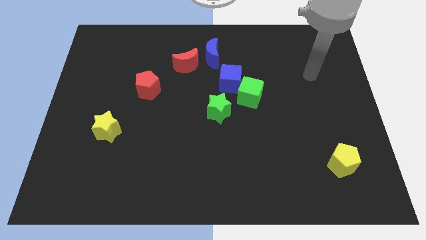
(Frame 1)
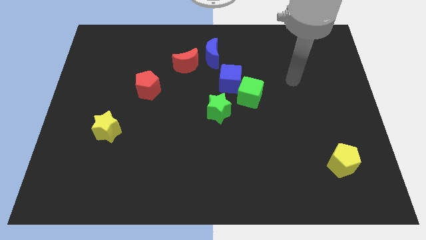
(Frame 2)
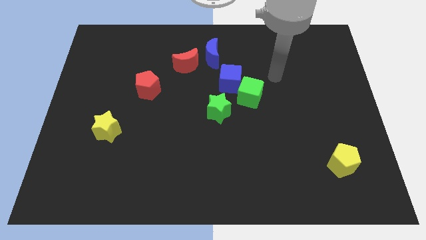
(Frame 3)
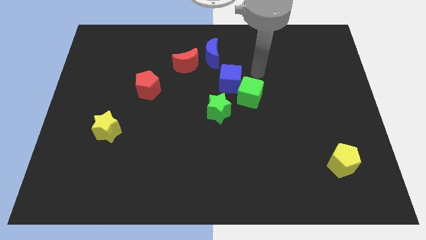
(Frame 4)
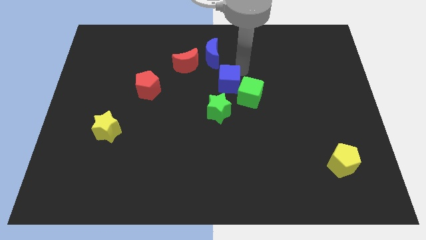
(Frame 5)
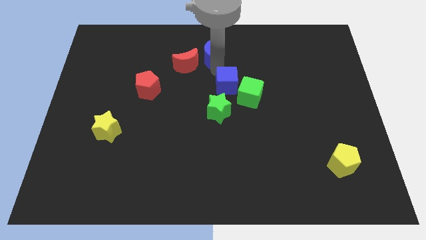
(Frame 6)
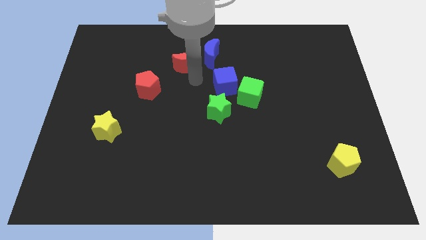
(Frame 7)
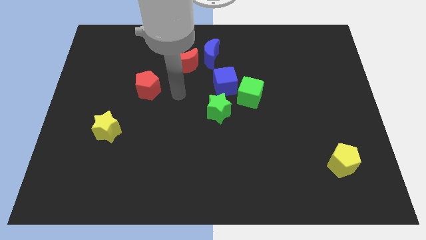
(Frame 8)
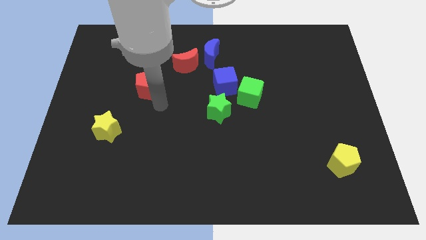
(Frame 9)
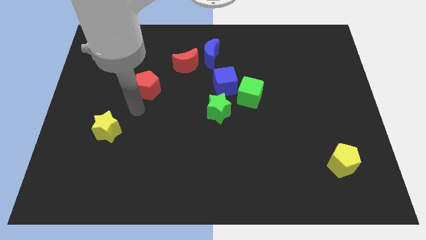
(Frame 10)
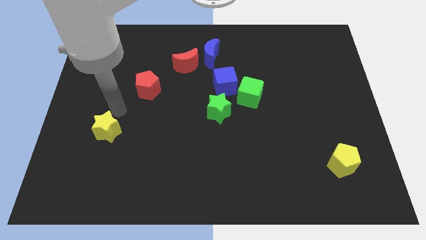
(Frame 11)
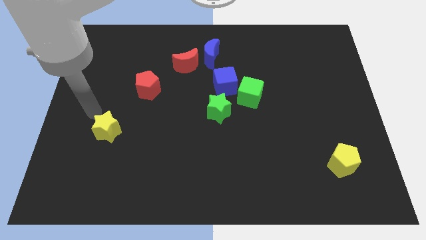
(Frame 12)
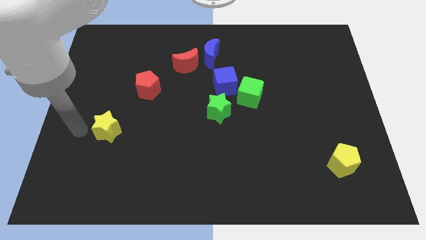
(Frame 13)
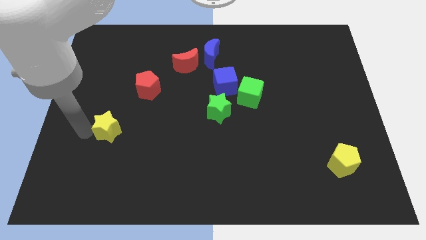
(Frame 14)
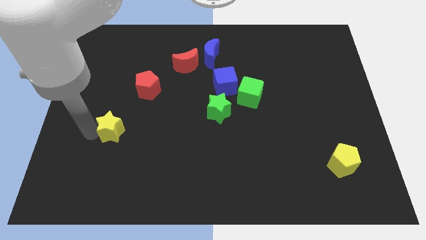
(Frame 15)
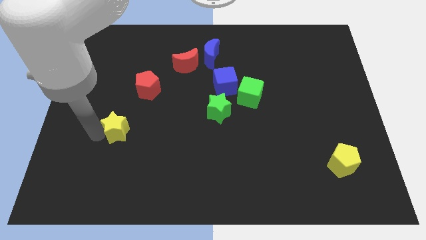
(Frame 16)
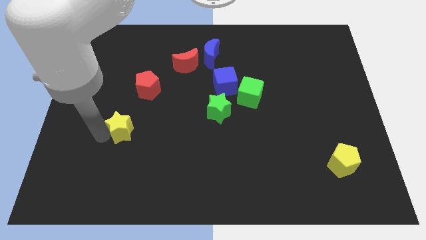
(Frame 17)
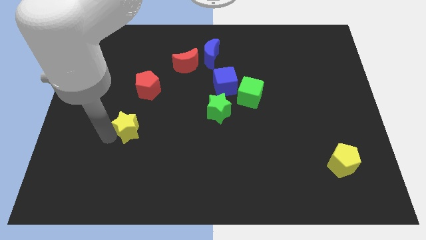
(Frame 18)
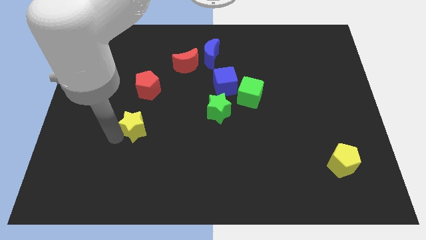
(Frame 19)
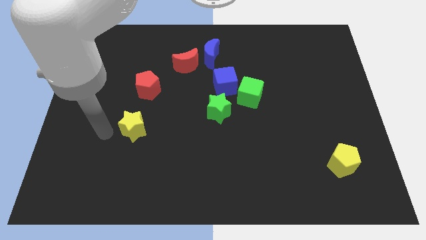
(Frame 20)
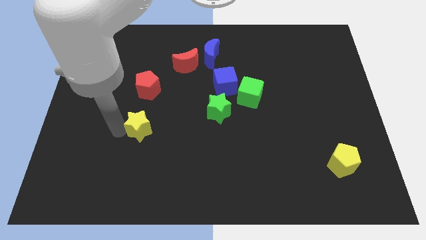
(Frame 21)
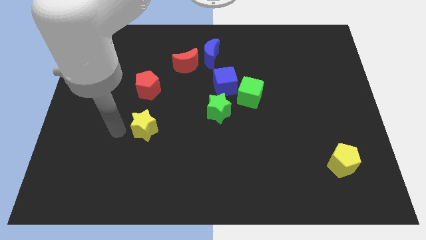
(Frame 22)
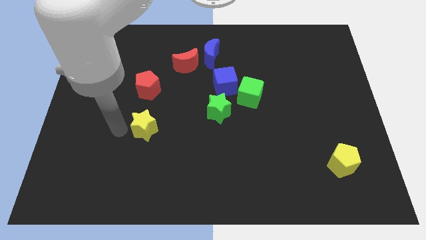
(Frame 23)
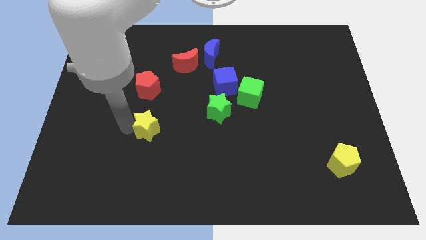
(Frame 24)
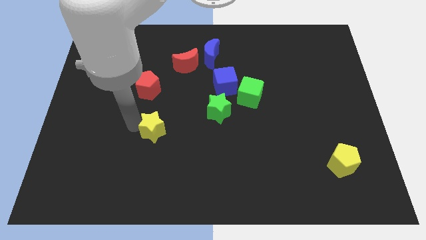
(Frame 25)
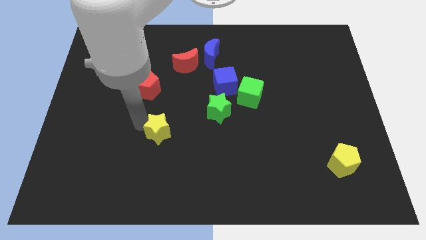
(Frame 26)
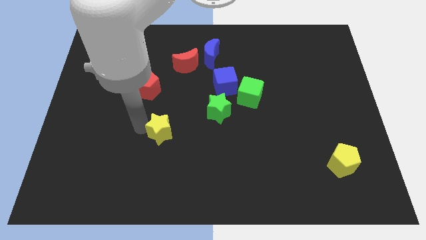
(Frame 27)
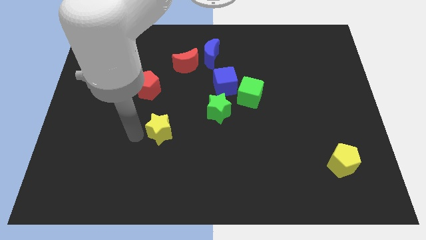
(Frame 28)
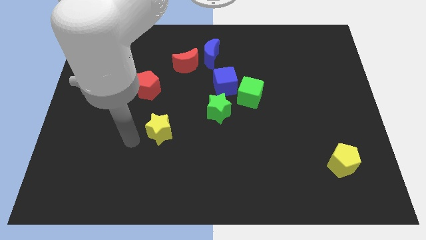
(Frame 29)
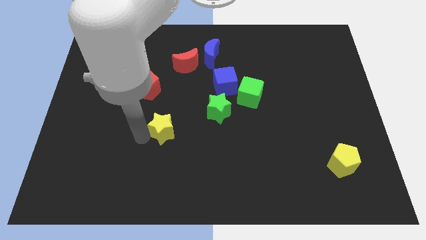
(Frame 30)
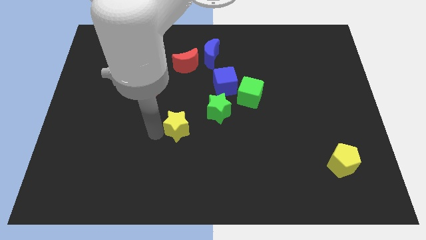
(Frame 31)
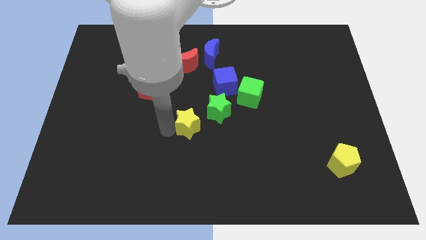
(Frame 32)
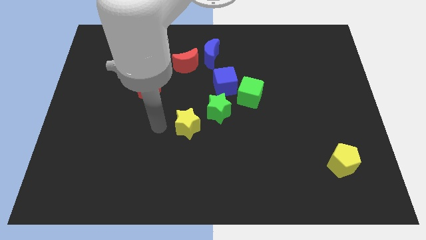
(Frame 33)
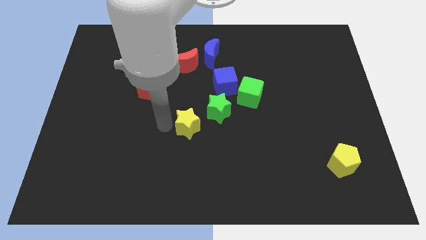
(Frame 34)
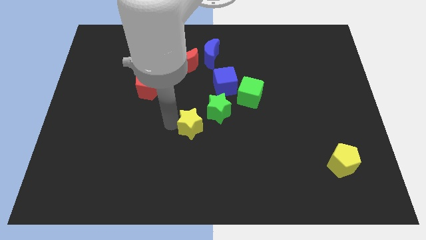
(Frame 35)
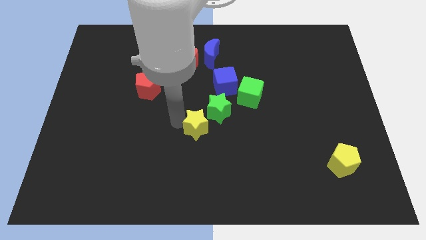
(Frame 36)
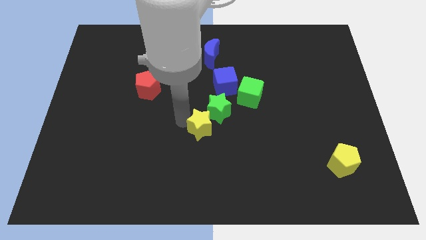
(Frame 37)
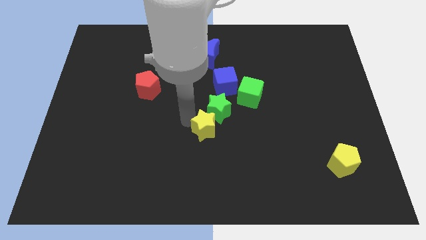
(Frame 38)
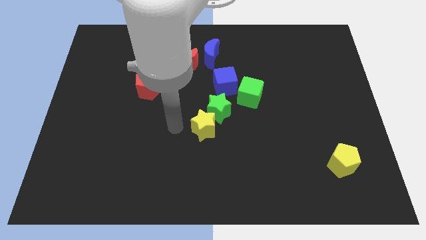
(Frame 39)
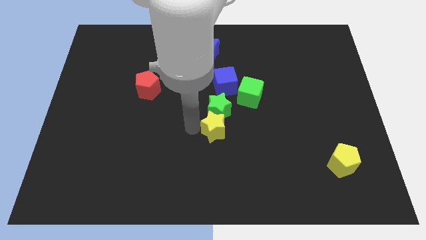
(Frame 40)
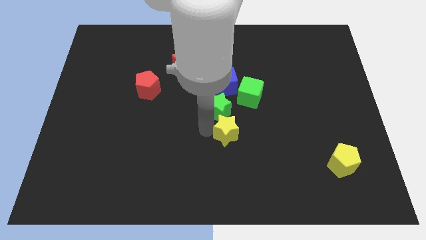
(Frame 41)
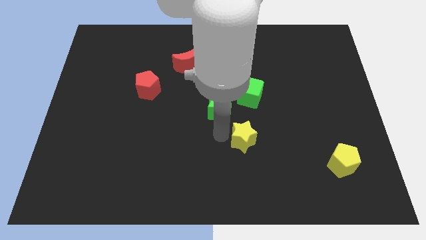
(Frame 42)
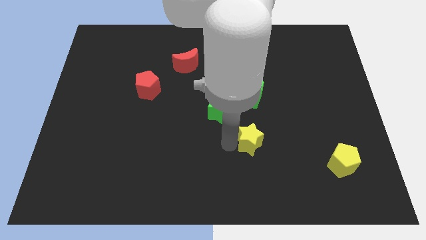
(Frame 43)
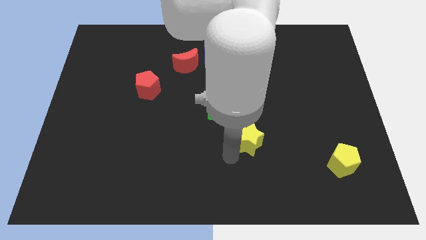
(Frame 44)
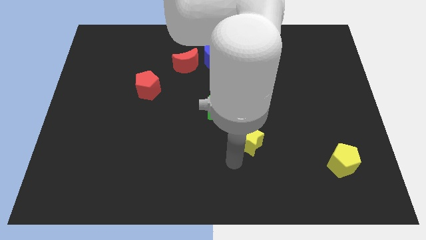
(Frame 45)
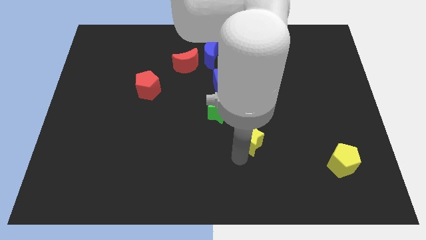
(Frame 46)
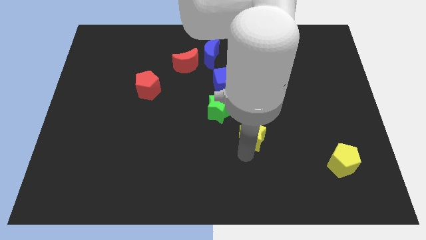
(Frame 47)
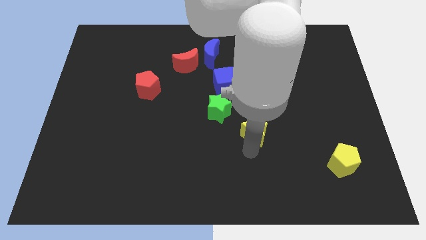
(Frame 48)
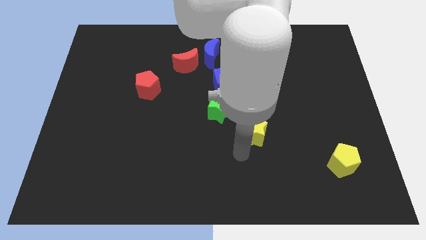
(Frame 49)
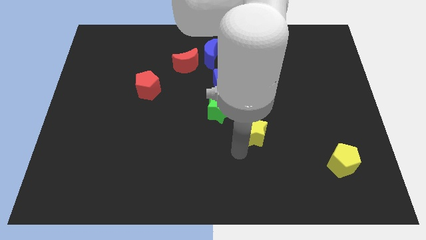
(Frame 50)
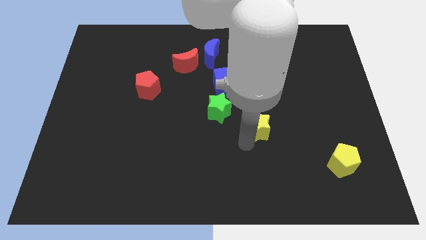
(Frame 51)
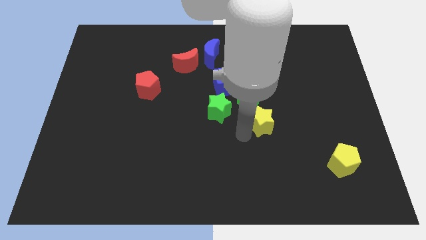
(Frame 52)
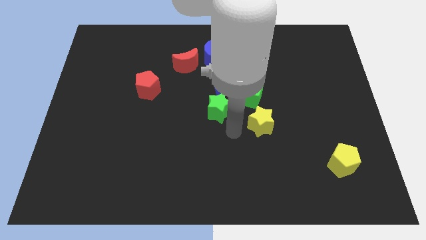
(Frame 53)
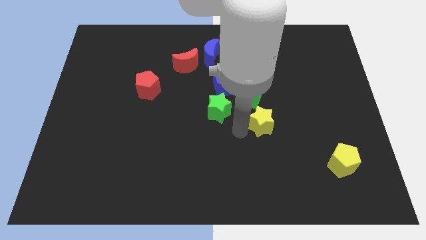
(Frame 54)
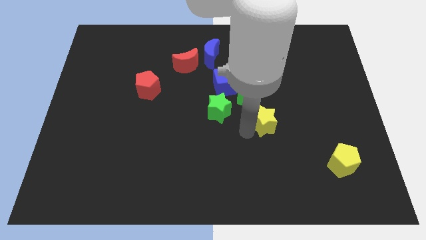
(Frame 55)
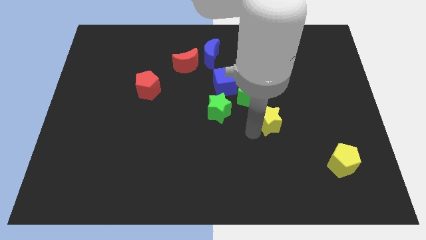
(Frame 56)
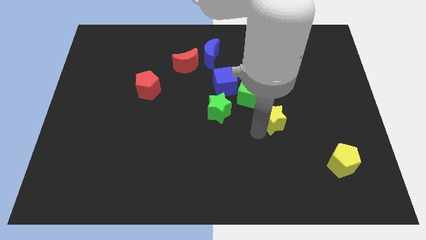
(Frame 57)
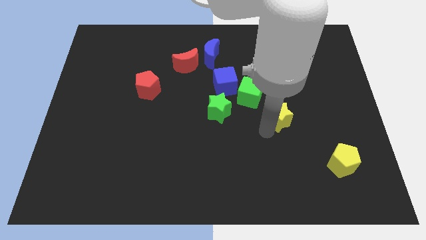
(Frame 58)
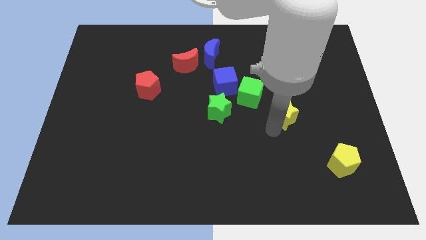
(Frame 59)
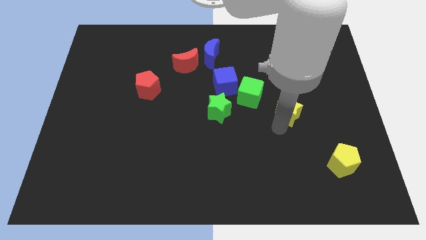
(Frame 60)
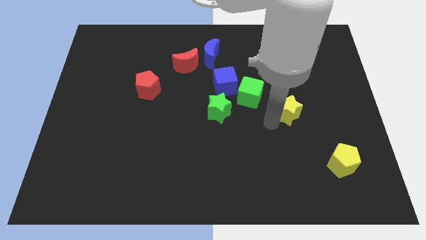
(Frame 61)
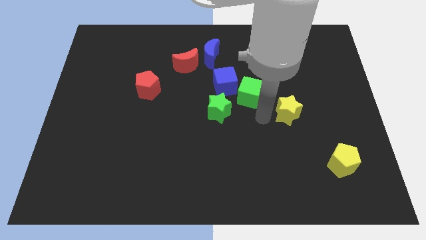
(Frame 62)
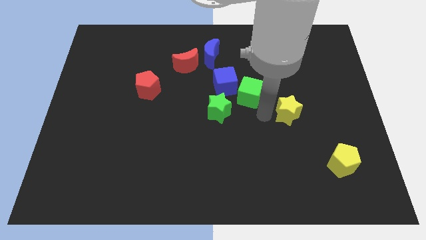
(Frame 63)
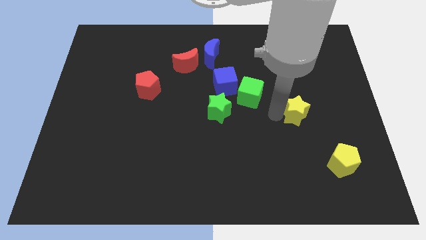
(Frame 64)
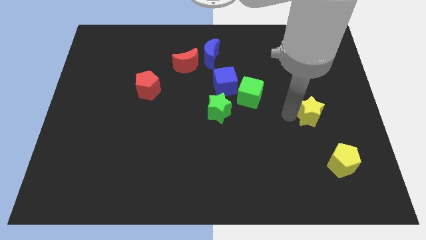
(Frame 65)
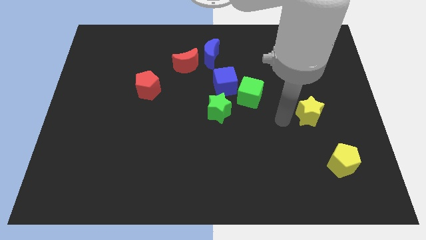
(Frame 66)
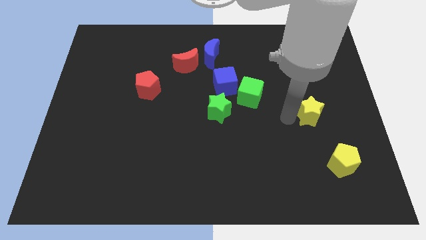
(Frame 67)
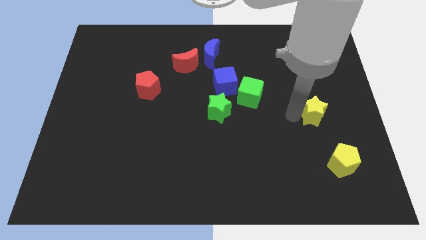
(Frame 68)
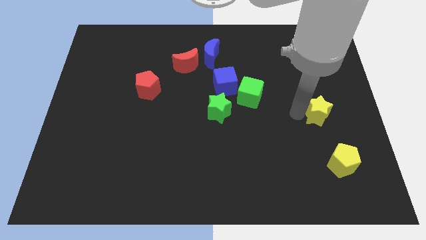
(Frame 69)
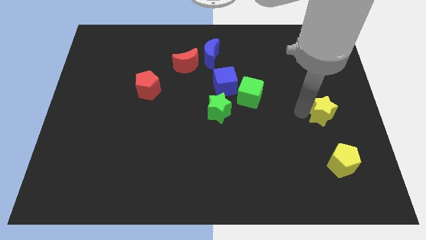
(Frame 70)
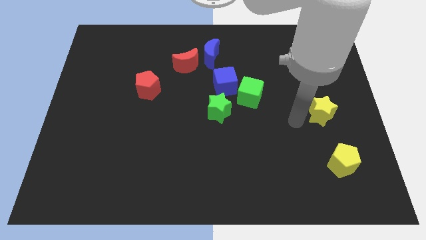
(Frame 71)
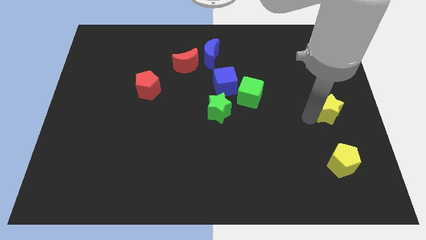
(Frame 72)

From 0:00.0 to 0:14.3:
push the yellow star to the right side of the board
